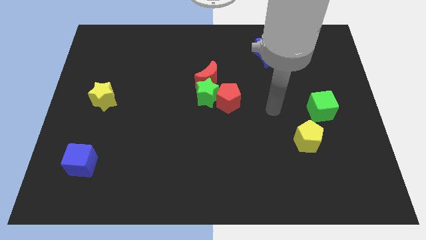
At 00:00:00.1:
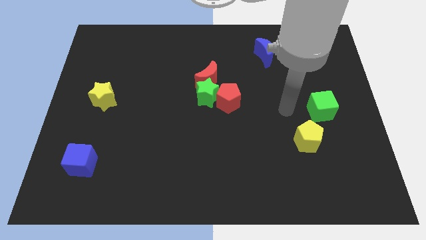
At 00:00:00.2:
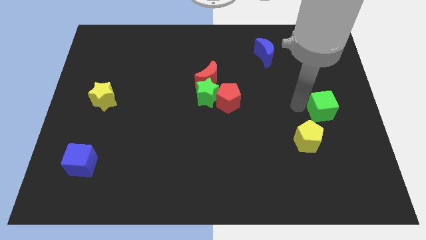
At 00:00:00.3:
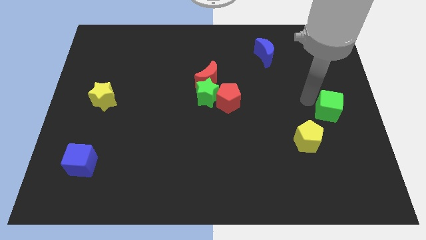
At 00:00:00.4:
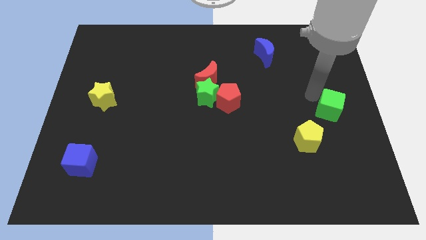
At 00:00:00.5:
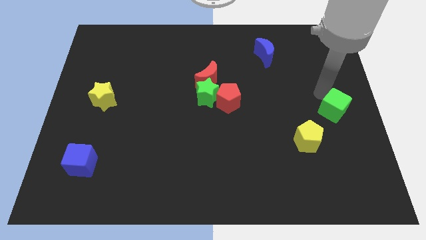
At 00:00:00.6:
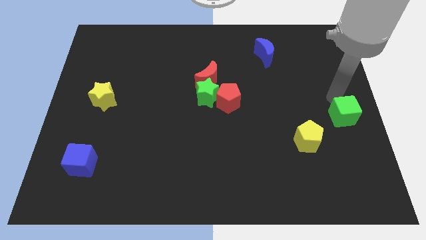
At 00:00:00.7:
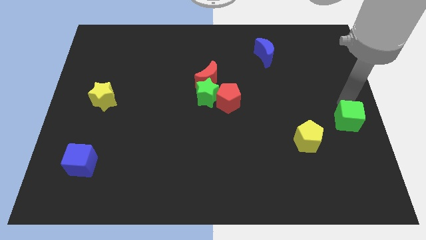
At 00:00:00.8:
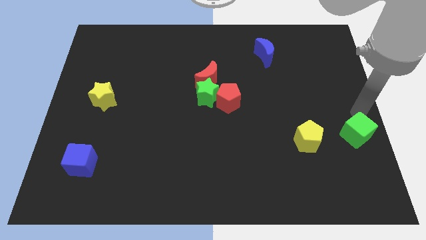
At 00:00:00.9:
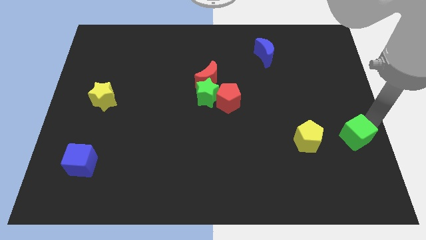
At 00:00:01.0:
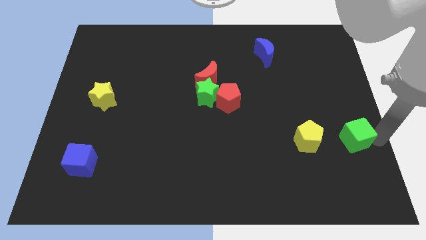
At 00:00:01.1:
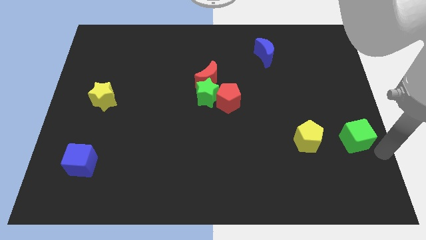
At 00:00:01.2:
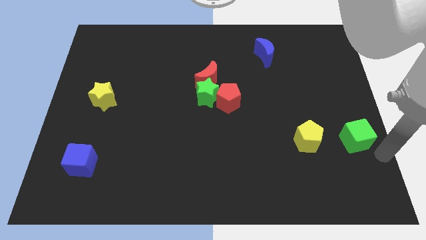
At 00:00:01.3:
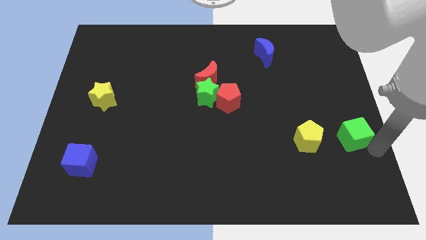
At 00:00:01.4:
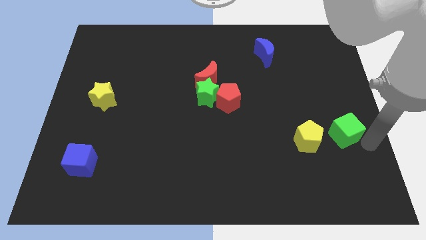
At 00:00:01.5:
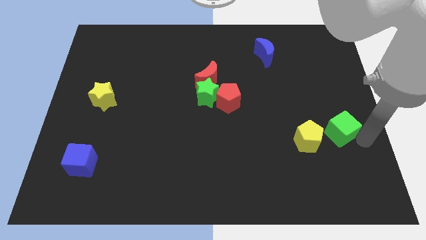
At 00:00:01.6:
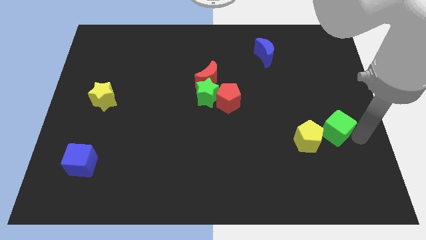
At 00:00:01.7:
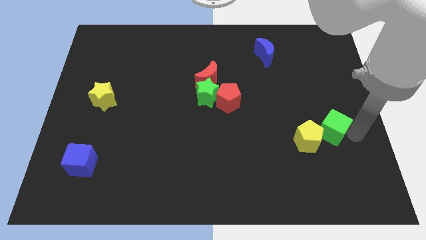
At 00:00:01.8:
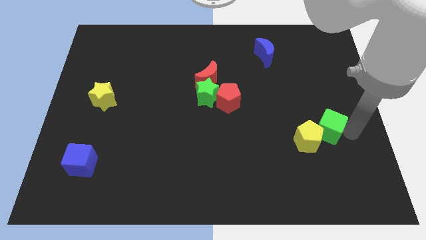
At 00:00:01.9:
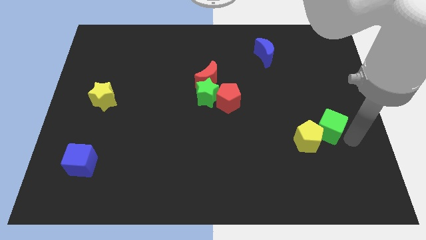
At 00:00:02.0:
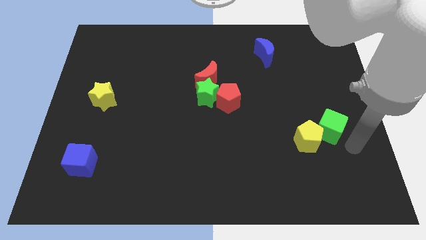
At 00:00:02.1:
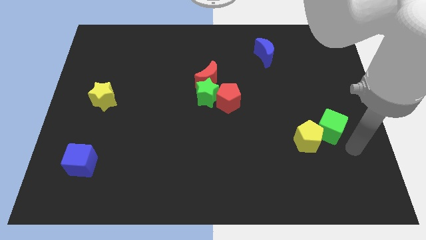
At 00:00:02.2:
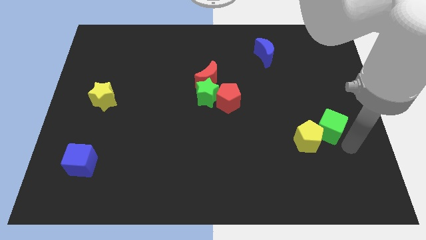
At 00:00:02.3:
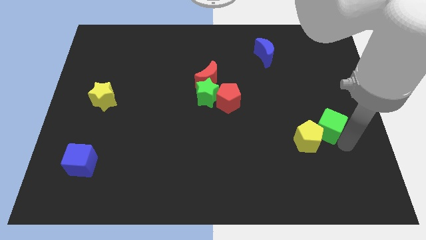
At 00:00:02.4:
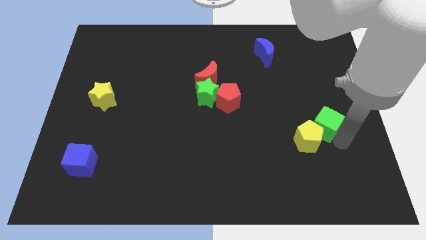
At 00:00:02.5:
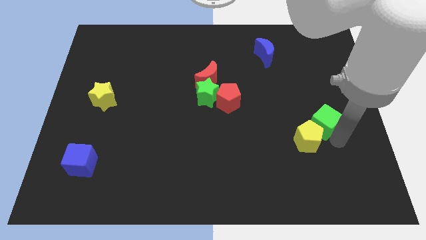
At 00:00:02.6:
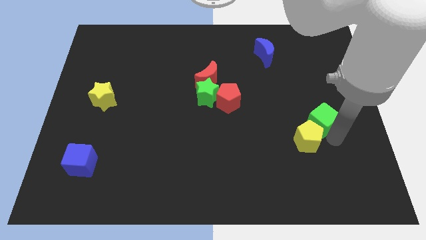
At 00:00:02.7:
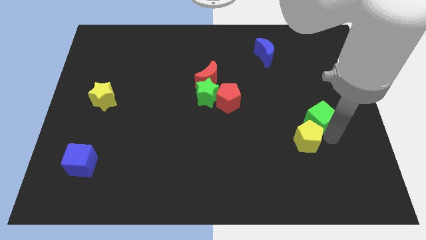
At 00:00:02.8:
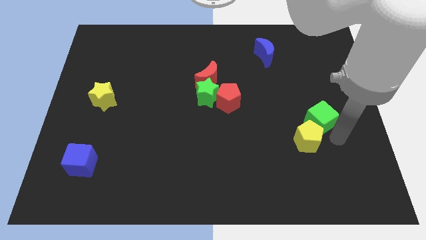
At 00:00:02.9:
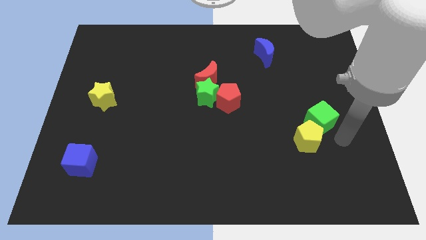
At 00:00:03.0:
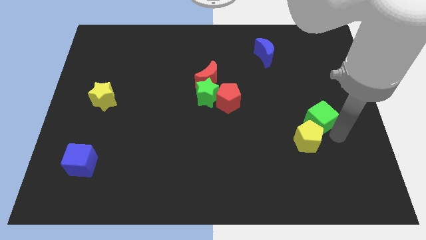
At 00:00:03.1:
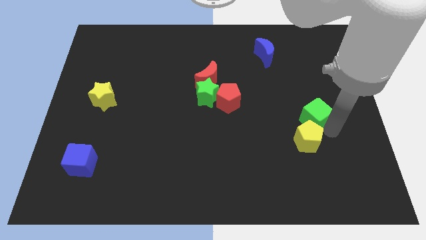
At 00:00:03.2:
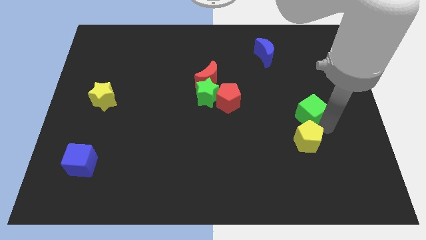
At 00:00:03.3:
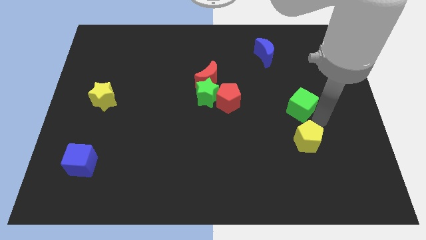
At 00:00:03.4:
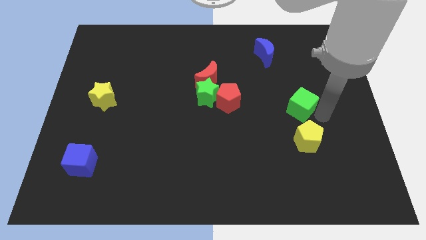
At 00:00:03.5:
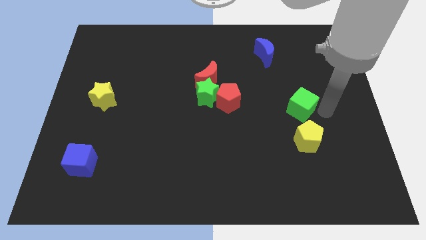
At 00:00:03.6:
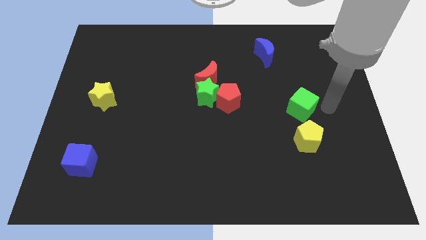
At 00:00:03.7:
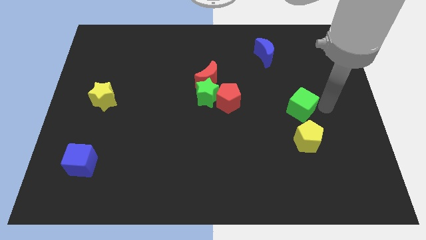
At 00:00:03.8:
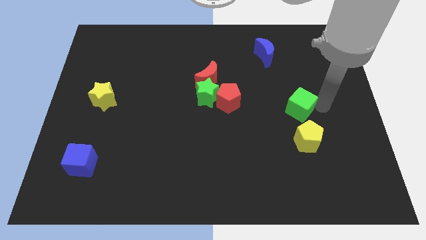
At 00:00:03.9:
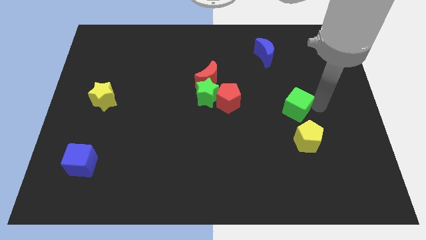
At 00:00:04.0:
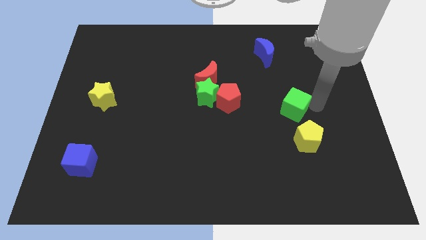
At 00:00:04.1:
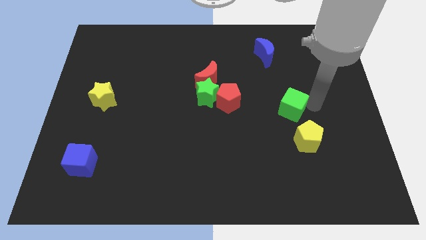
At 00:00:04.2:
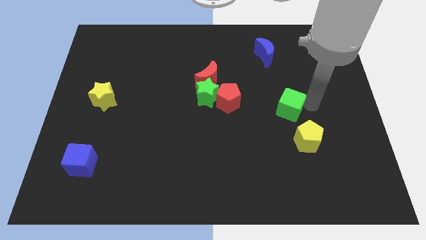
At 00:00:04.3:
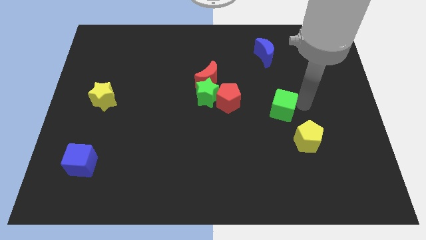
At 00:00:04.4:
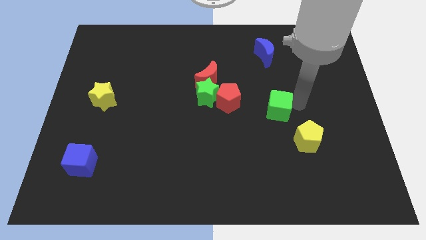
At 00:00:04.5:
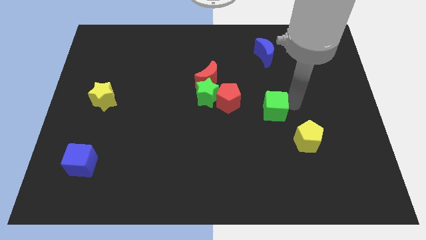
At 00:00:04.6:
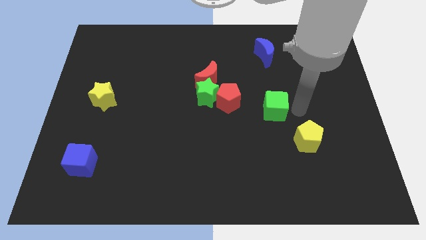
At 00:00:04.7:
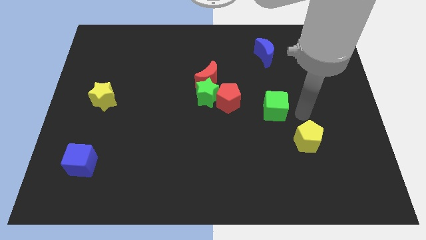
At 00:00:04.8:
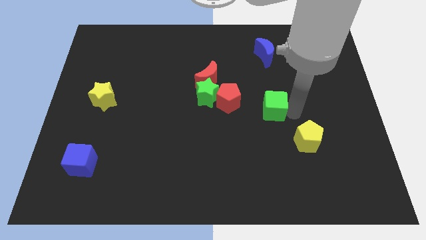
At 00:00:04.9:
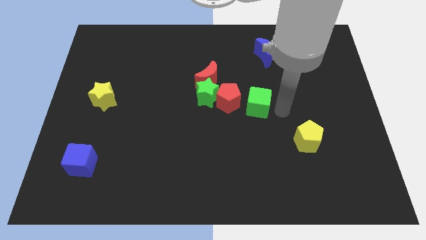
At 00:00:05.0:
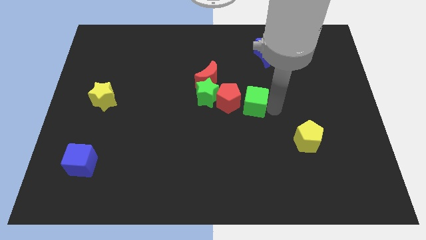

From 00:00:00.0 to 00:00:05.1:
push the green cube next to the red pentagon

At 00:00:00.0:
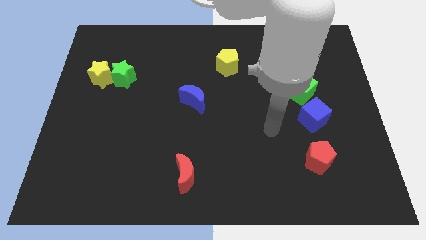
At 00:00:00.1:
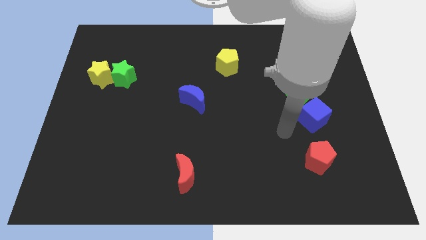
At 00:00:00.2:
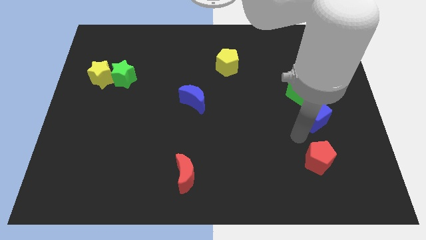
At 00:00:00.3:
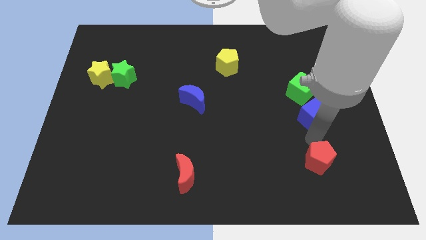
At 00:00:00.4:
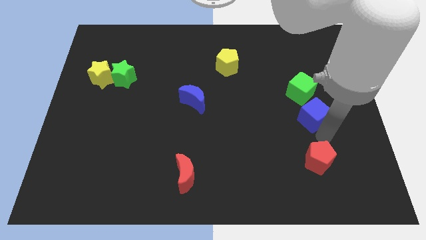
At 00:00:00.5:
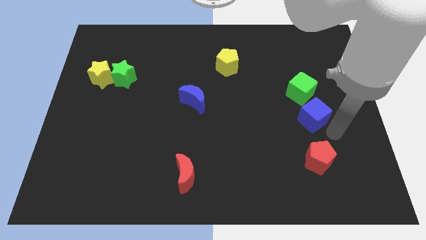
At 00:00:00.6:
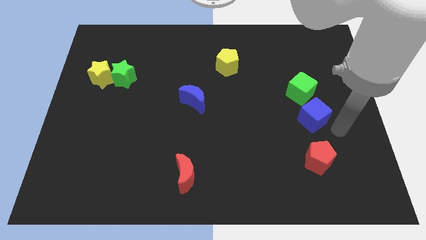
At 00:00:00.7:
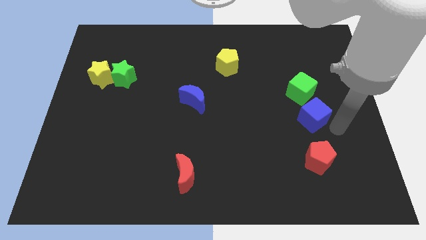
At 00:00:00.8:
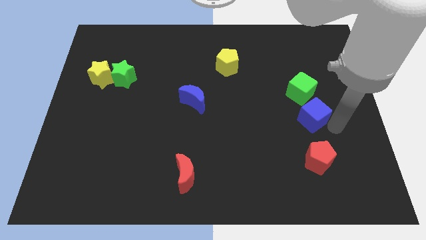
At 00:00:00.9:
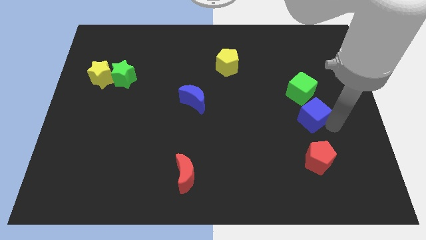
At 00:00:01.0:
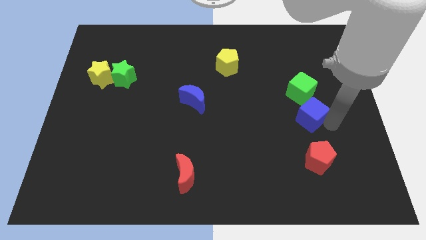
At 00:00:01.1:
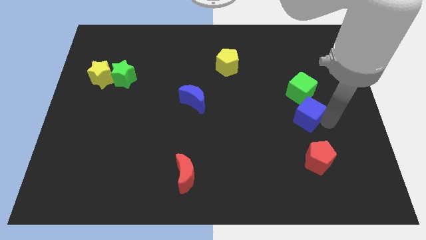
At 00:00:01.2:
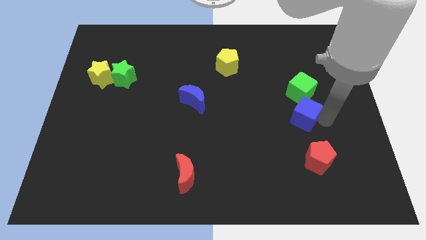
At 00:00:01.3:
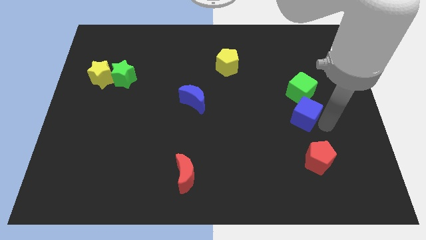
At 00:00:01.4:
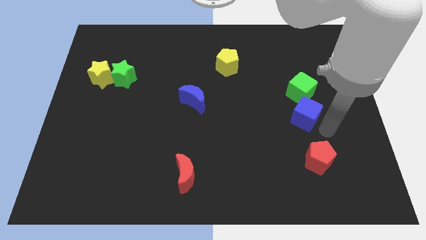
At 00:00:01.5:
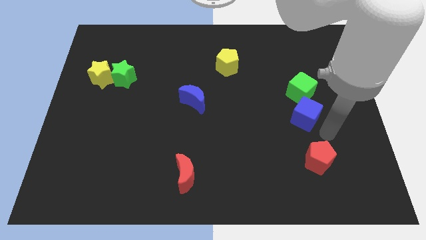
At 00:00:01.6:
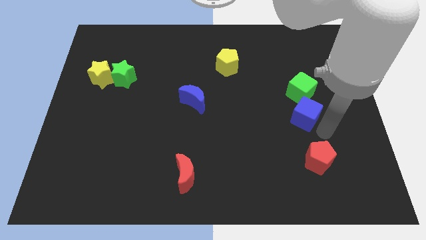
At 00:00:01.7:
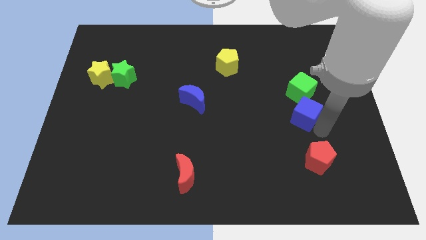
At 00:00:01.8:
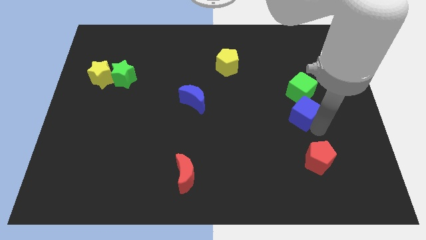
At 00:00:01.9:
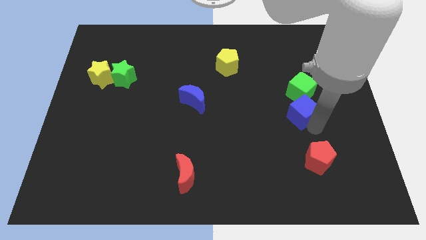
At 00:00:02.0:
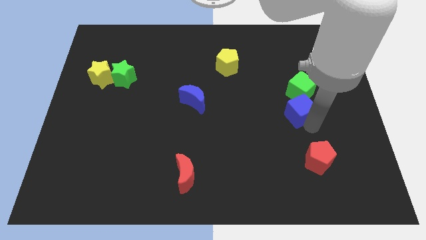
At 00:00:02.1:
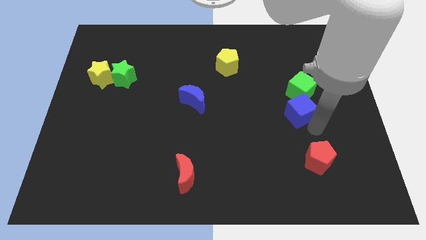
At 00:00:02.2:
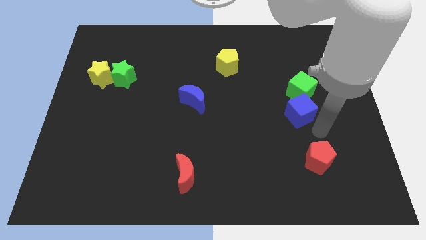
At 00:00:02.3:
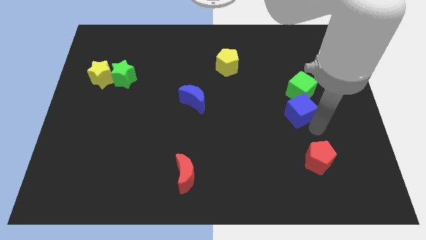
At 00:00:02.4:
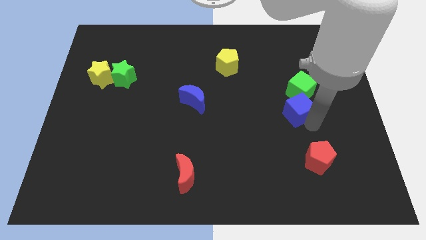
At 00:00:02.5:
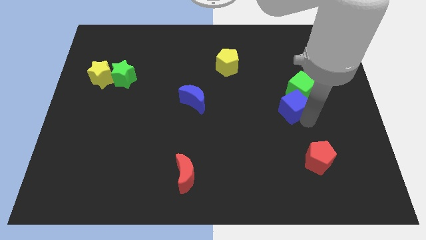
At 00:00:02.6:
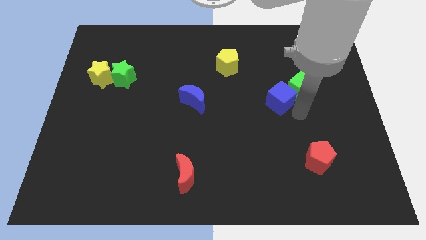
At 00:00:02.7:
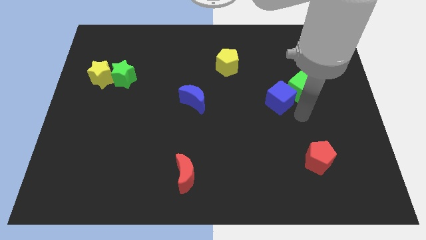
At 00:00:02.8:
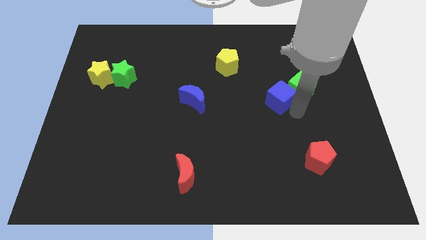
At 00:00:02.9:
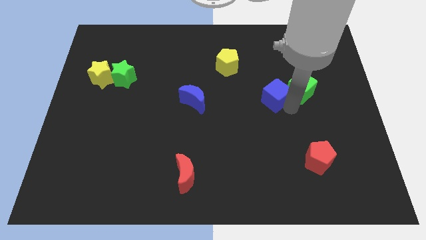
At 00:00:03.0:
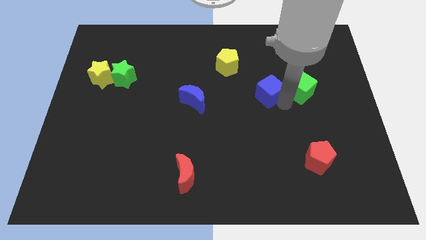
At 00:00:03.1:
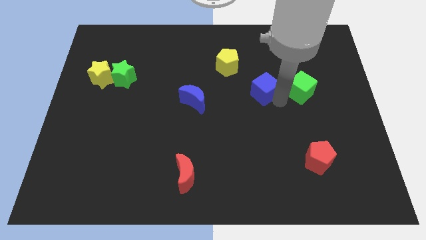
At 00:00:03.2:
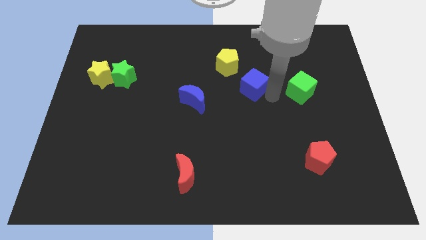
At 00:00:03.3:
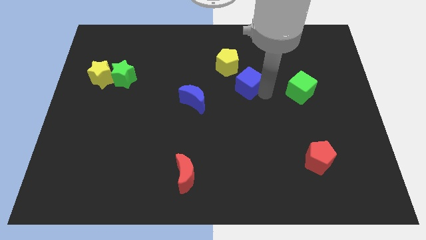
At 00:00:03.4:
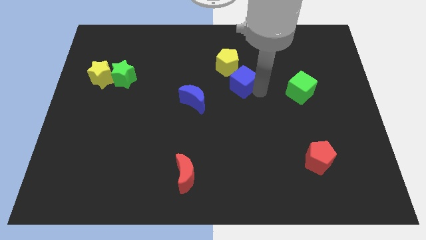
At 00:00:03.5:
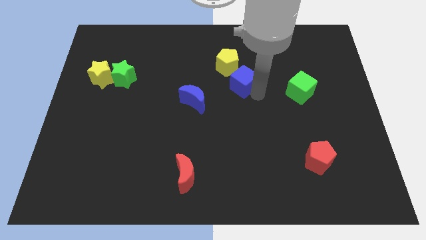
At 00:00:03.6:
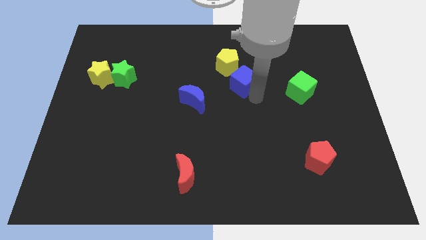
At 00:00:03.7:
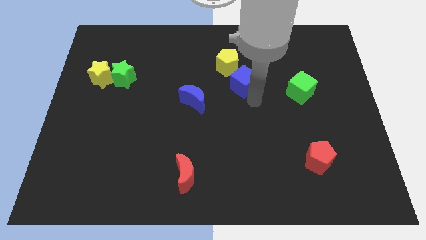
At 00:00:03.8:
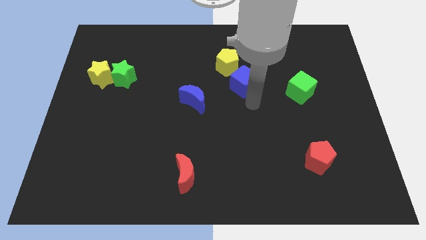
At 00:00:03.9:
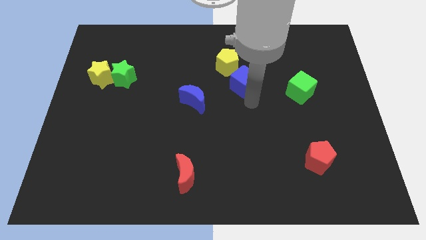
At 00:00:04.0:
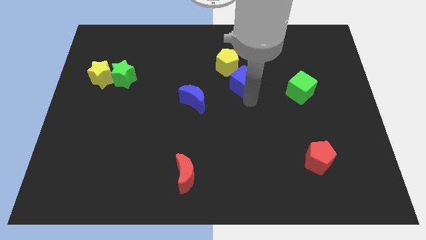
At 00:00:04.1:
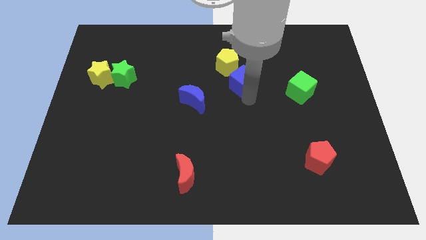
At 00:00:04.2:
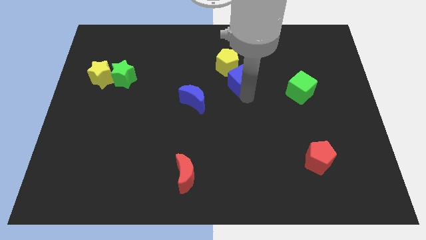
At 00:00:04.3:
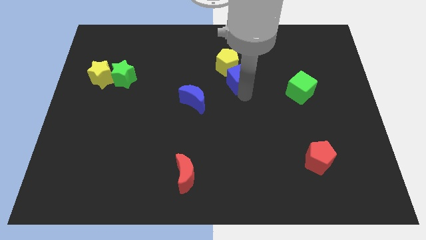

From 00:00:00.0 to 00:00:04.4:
push the blue cube close to the yellow pentagon
